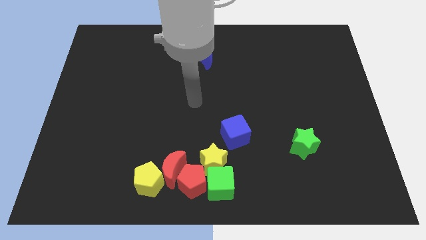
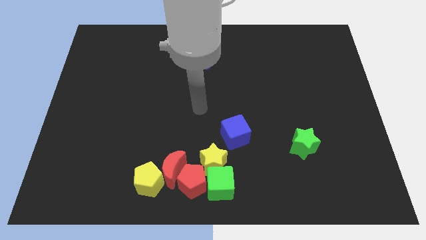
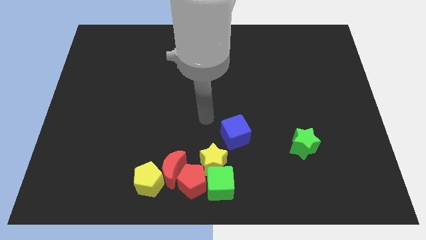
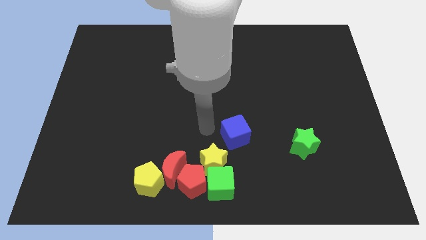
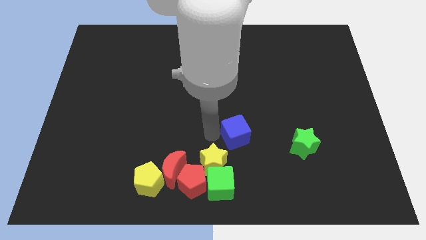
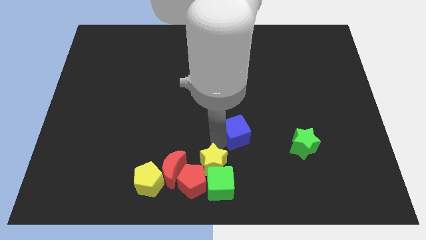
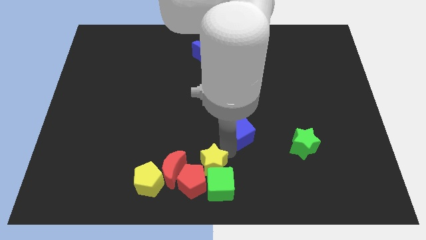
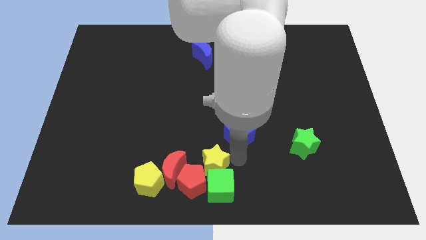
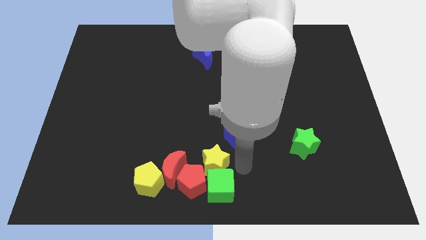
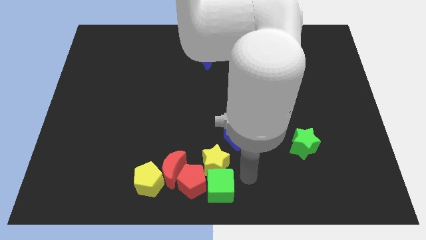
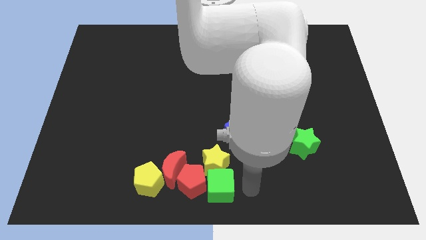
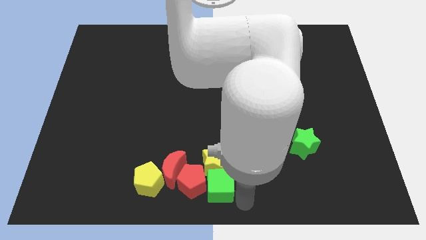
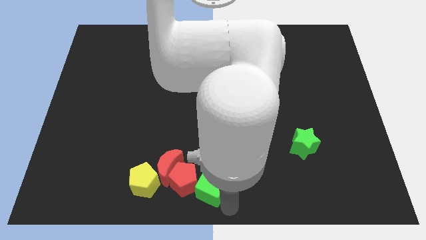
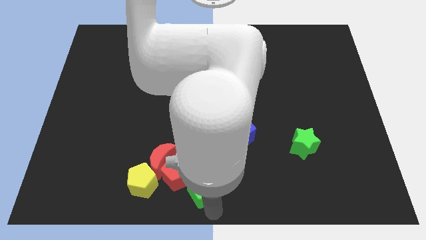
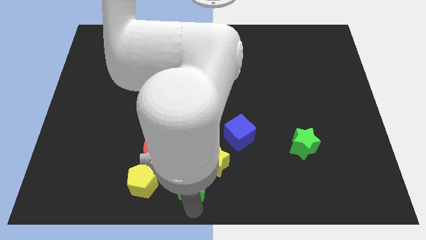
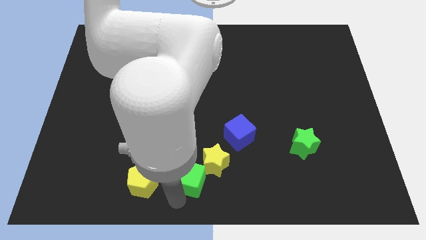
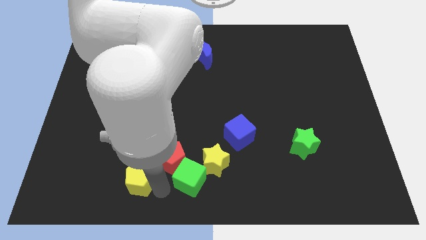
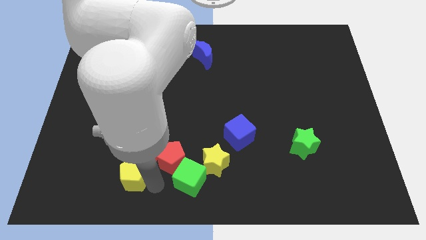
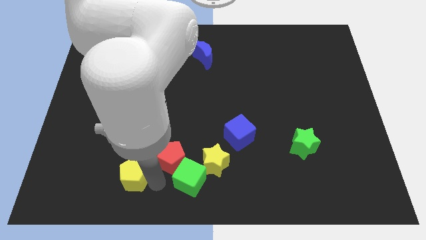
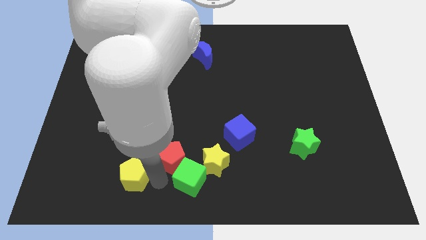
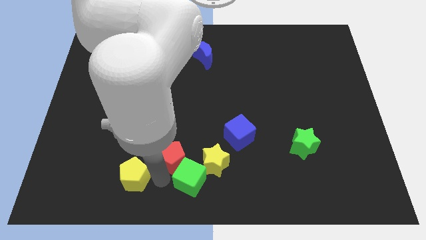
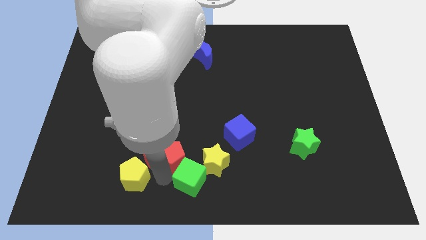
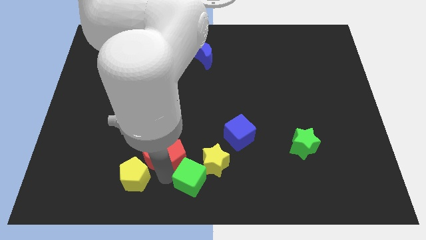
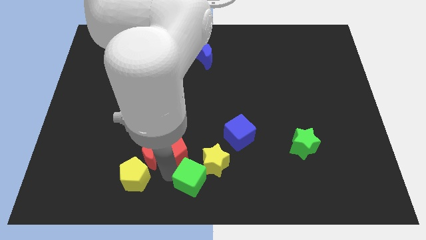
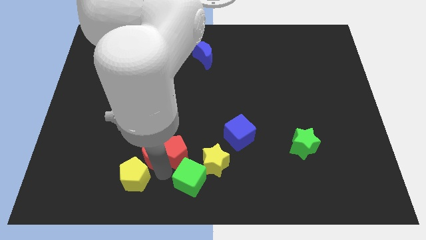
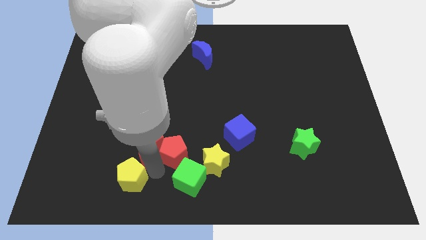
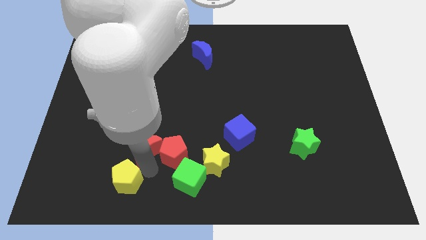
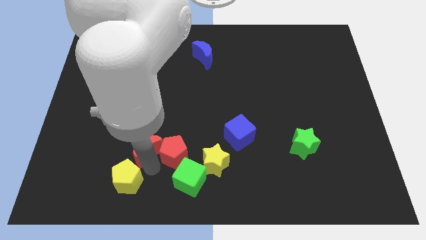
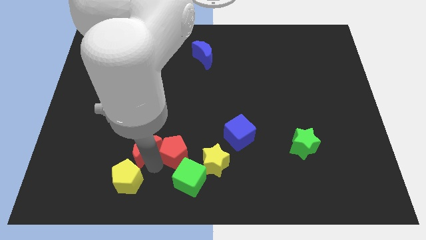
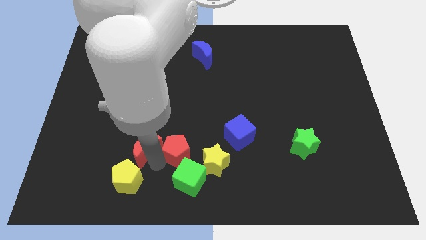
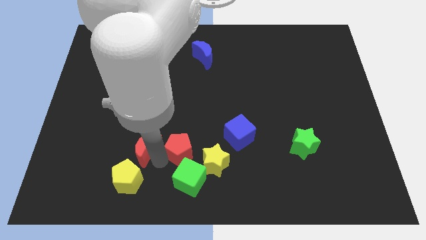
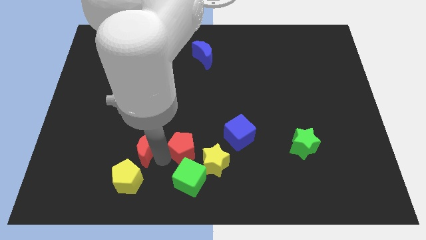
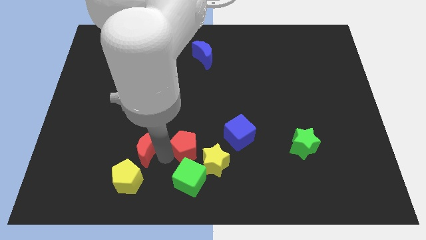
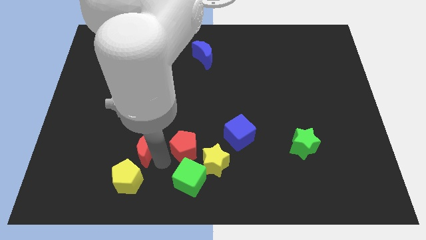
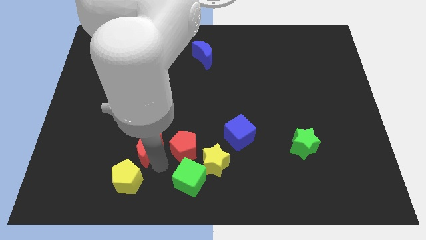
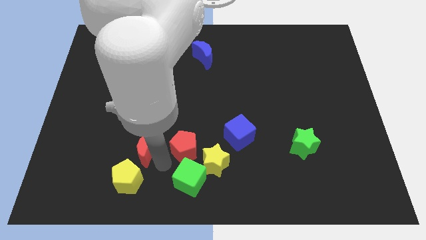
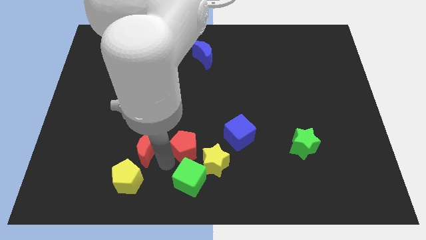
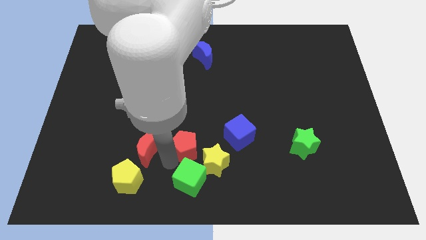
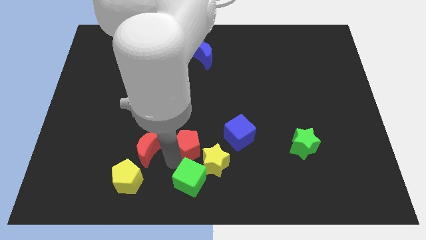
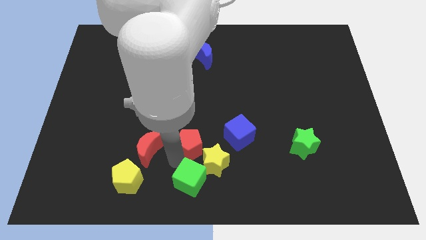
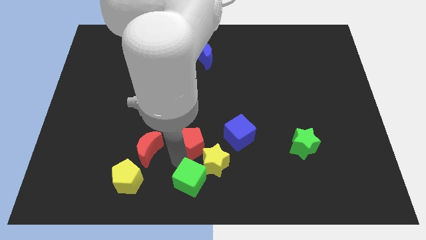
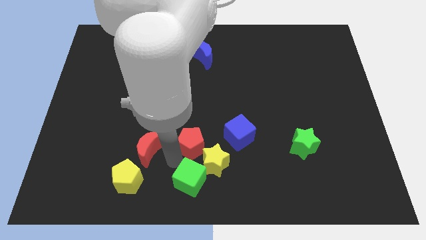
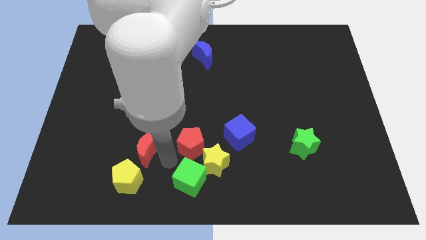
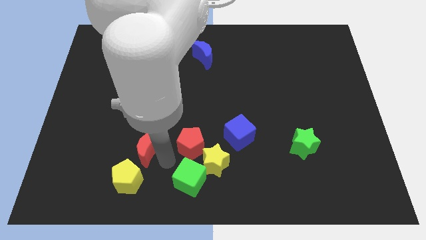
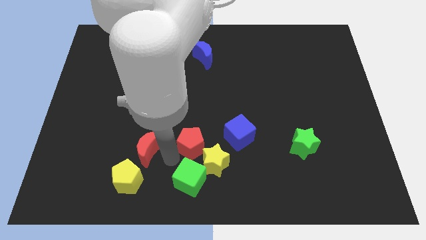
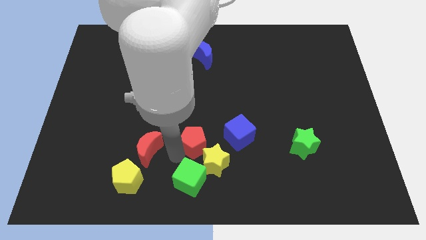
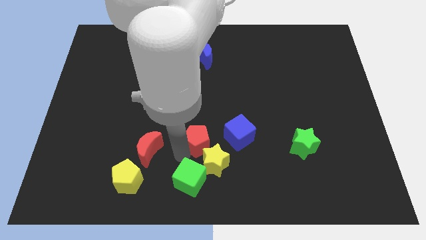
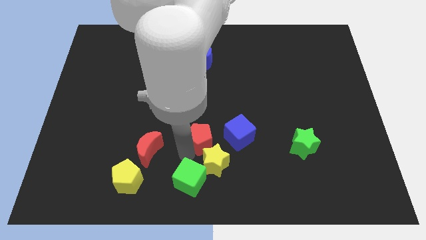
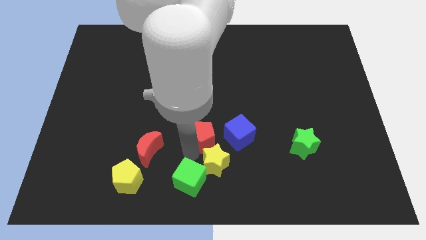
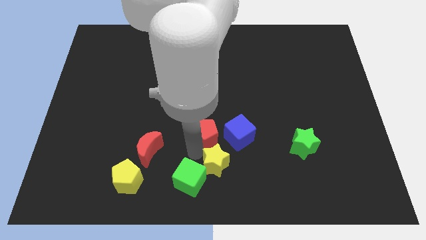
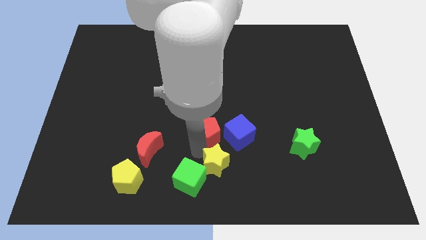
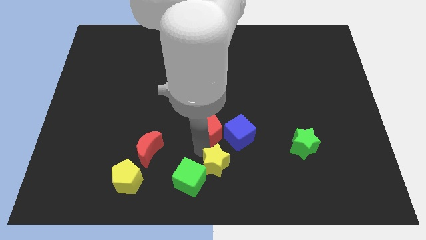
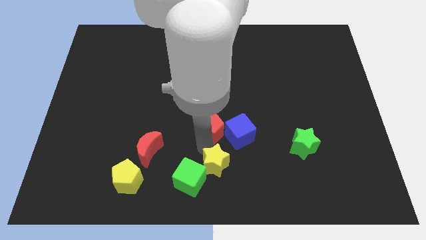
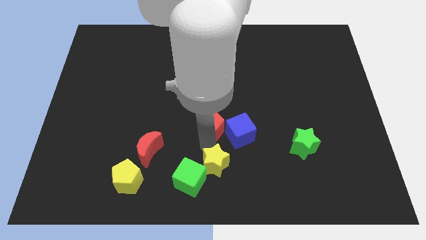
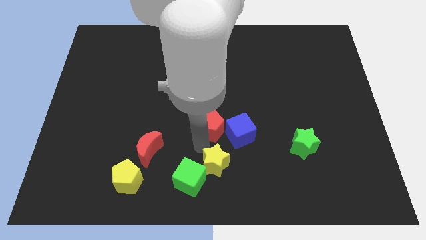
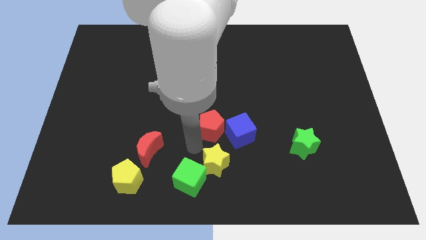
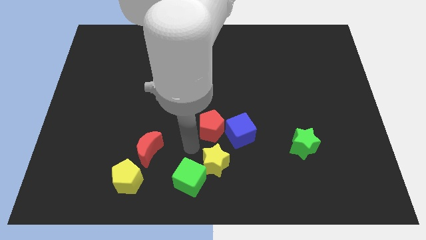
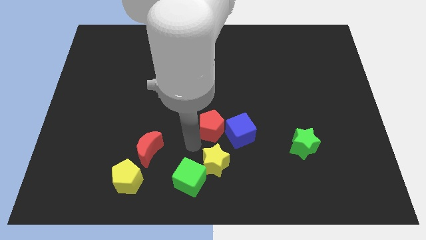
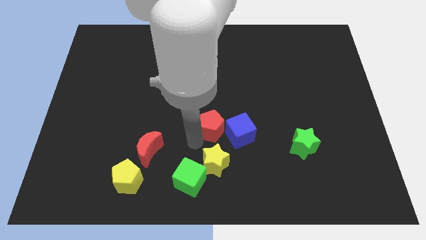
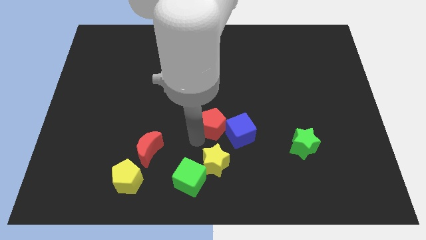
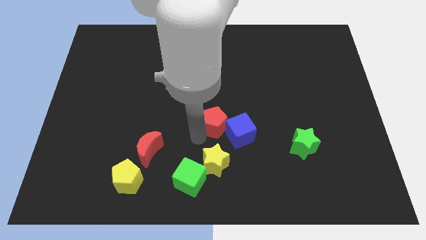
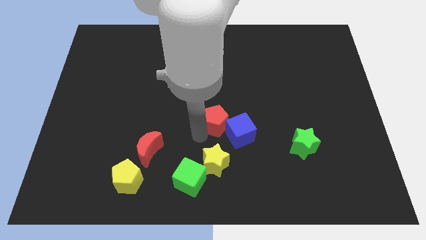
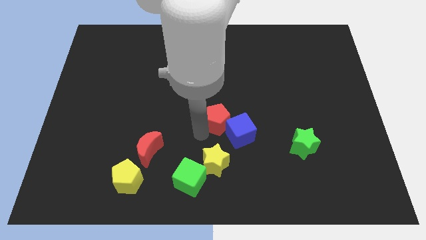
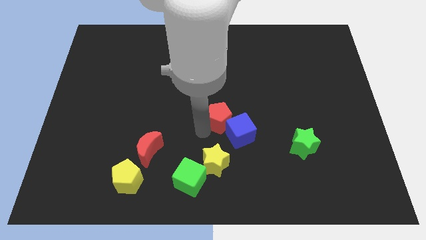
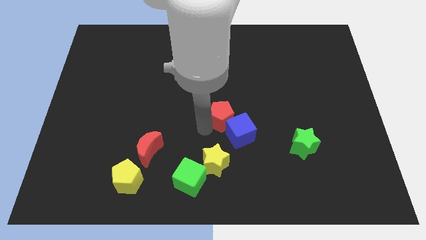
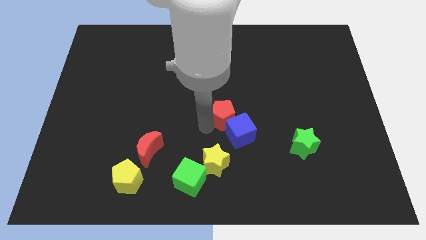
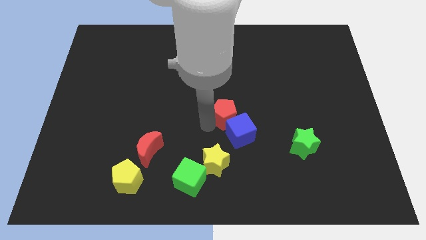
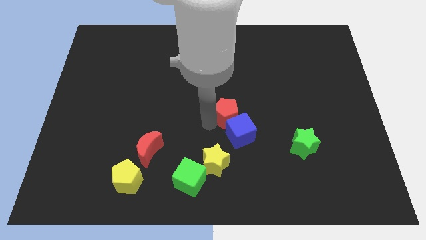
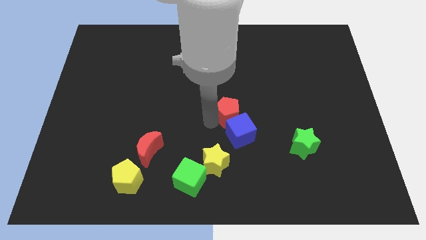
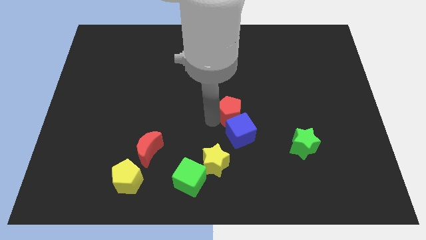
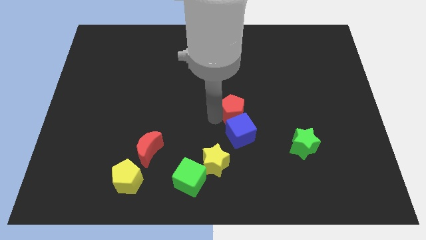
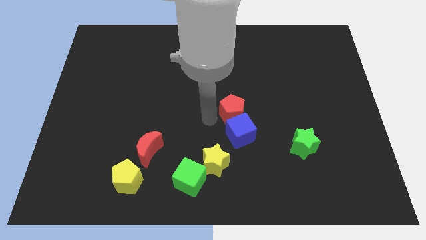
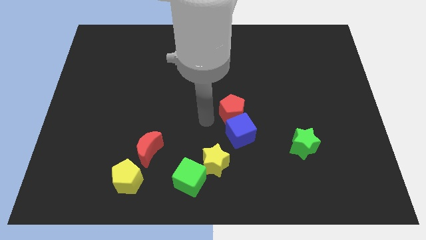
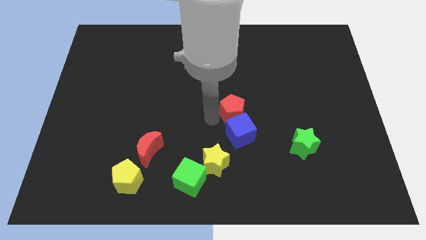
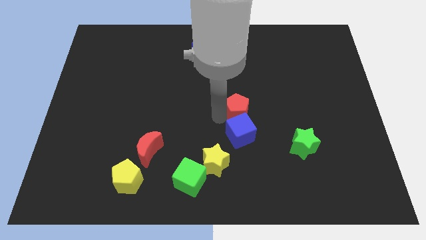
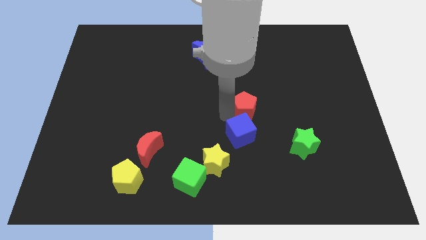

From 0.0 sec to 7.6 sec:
slide the red pentagon up and to the right diagonally

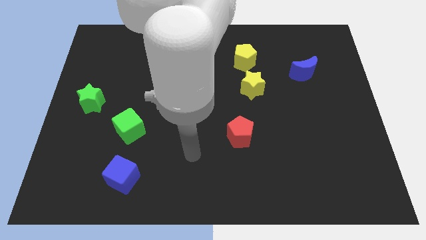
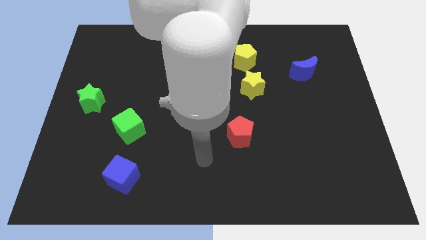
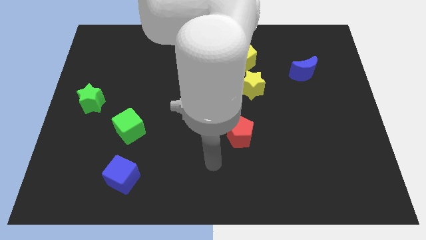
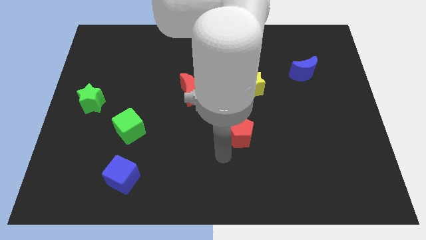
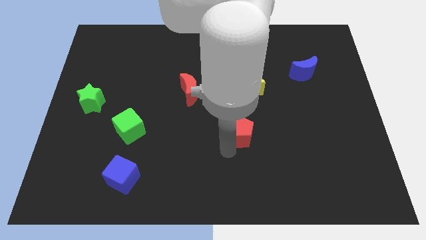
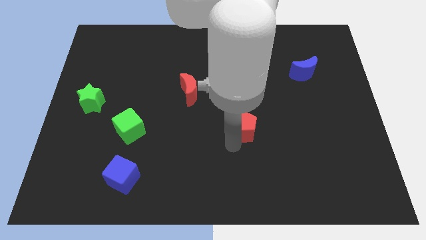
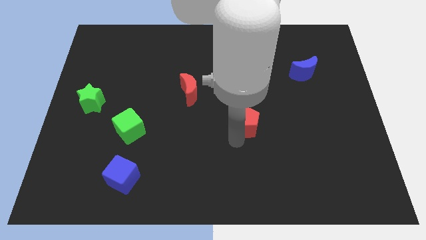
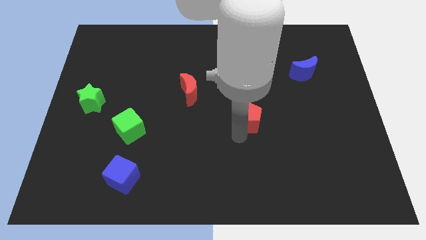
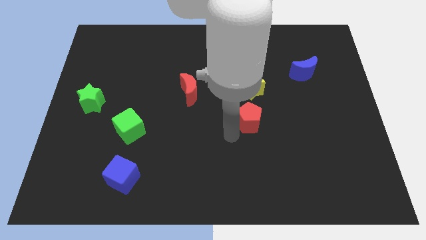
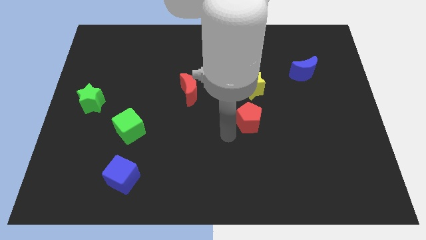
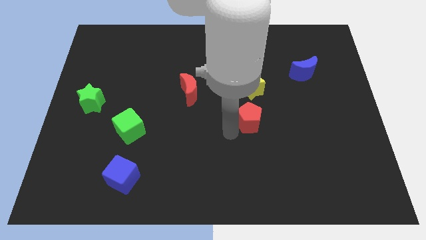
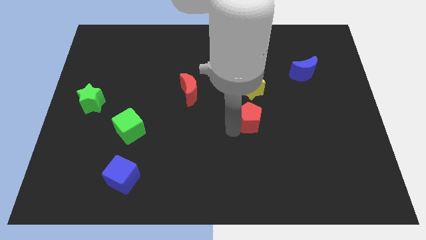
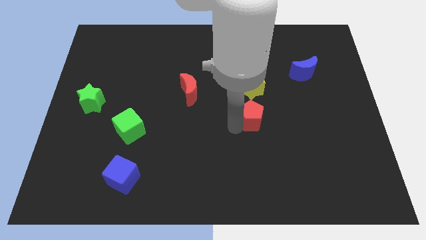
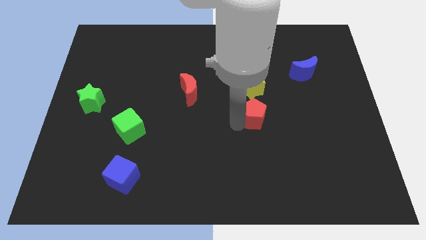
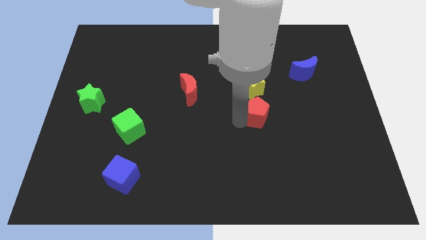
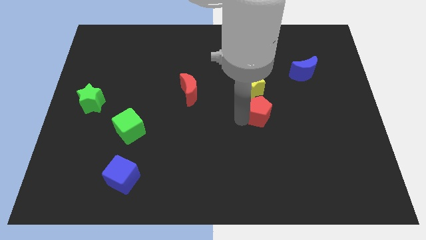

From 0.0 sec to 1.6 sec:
slightly slide the red pentagon up and to the right
